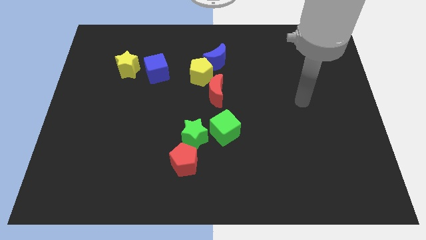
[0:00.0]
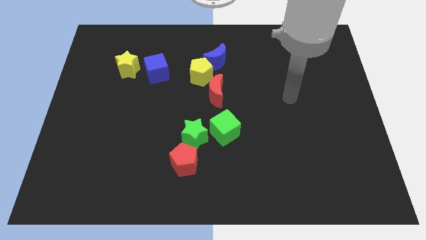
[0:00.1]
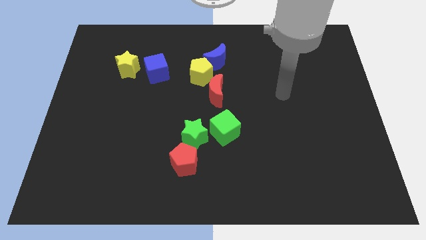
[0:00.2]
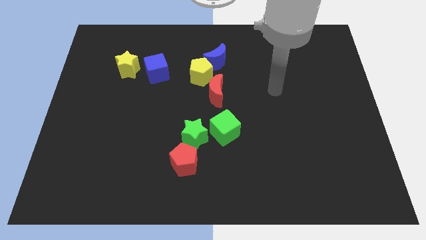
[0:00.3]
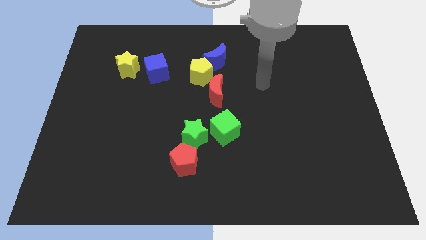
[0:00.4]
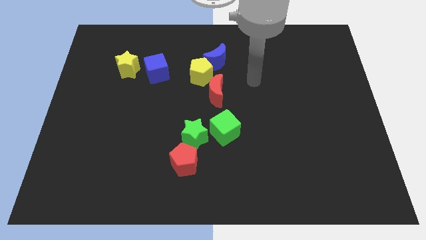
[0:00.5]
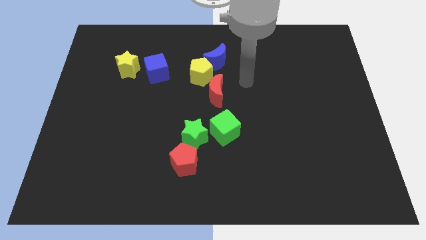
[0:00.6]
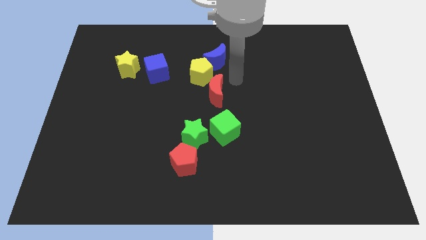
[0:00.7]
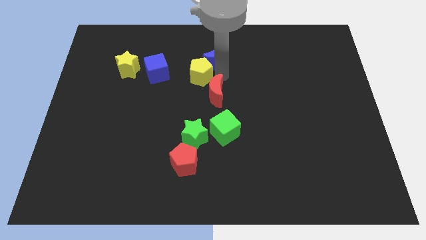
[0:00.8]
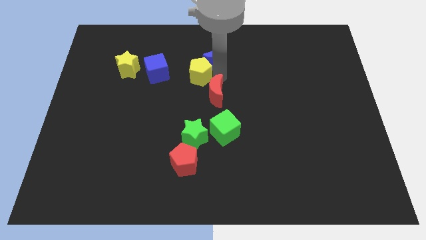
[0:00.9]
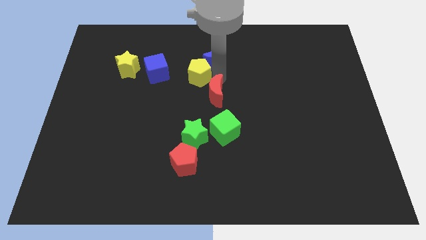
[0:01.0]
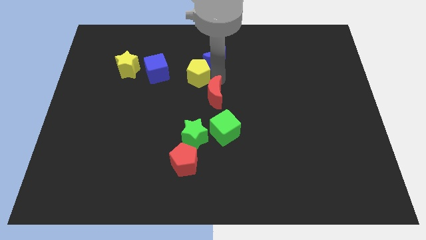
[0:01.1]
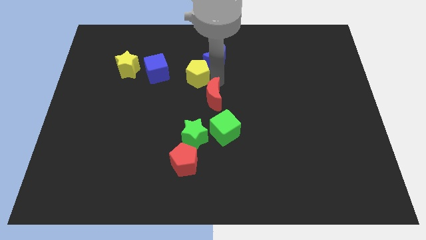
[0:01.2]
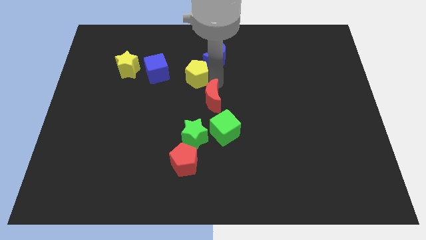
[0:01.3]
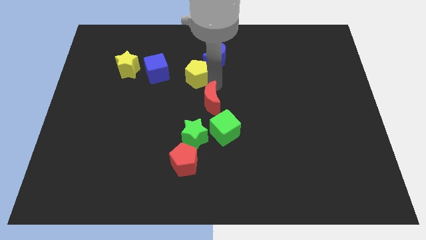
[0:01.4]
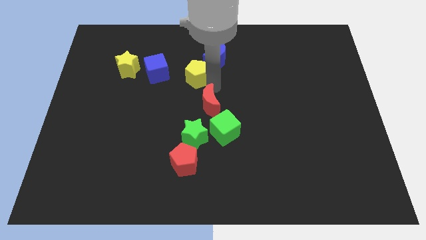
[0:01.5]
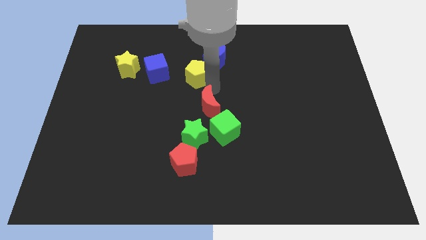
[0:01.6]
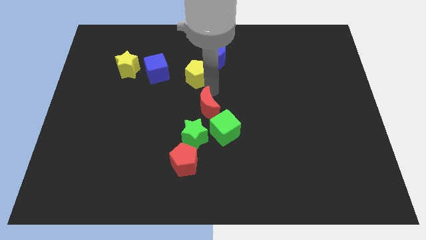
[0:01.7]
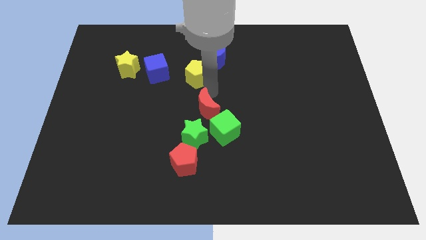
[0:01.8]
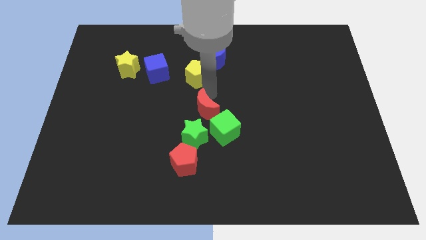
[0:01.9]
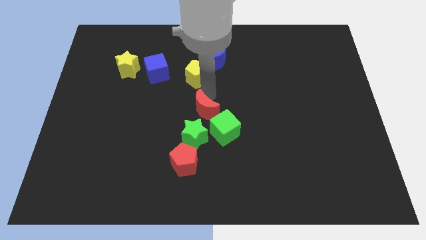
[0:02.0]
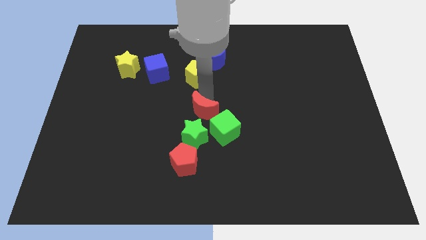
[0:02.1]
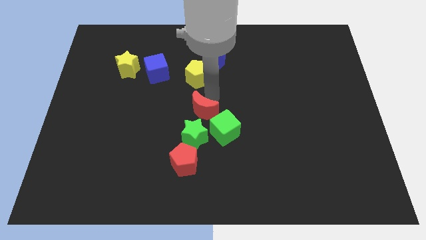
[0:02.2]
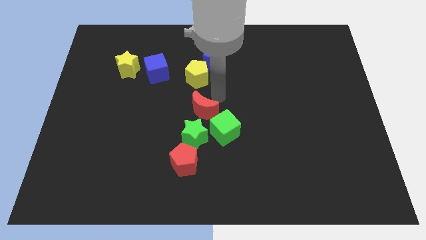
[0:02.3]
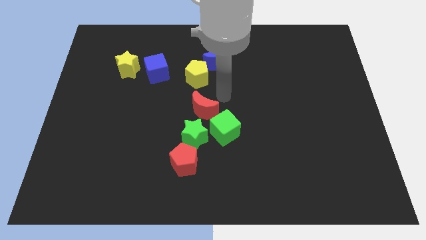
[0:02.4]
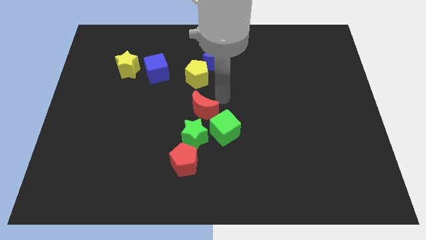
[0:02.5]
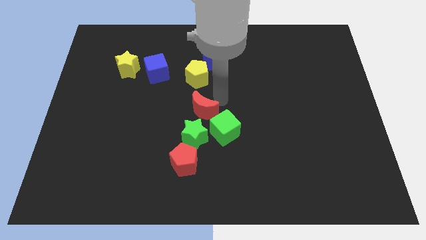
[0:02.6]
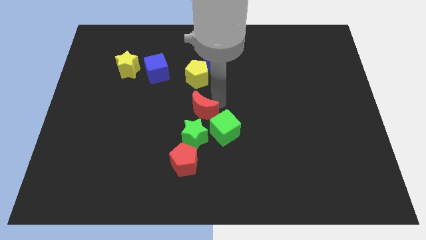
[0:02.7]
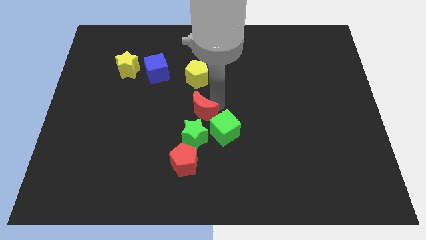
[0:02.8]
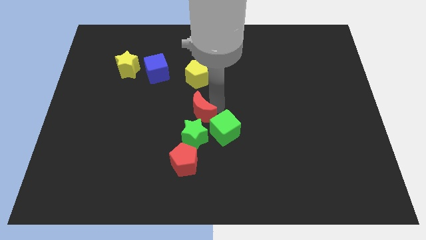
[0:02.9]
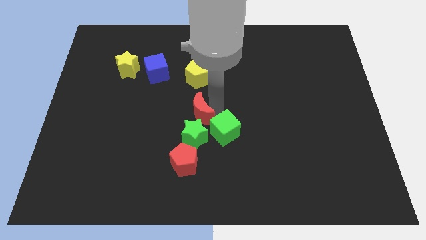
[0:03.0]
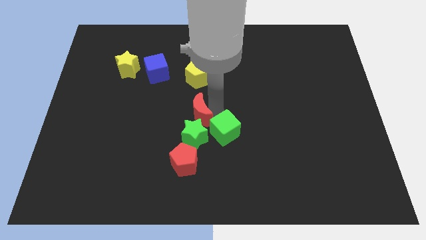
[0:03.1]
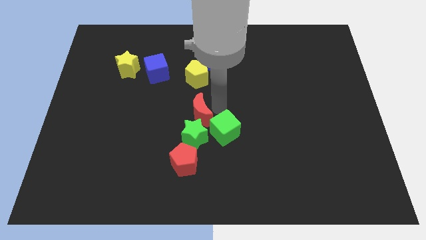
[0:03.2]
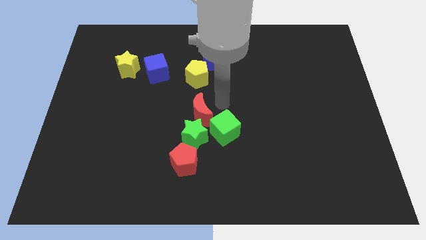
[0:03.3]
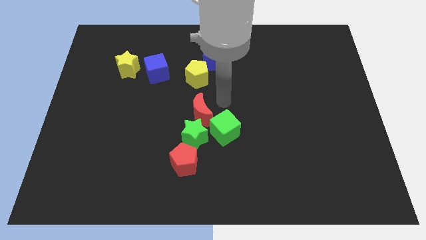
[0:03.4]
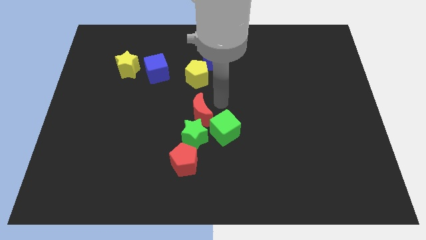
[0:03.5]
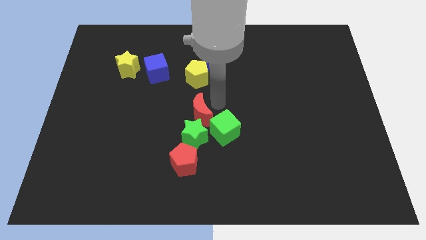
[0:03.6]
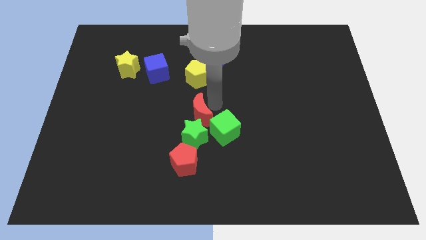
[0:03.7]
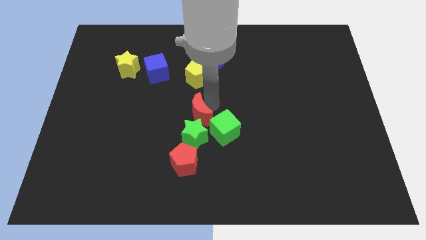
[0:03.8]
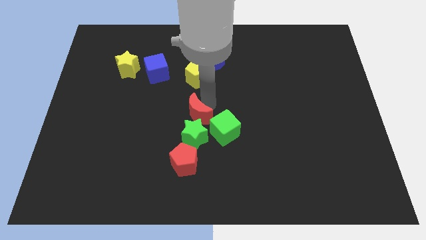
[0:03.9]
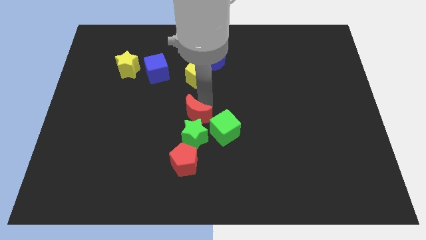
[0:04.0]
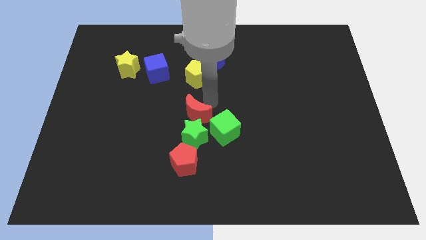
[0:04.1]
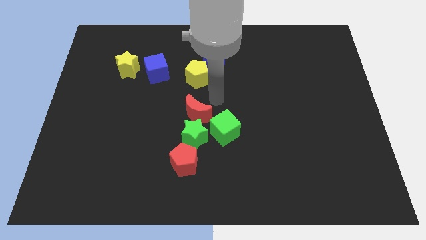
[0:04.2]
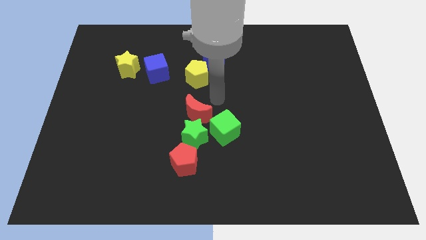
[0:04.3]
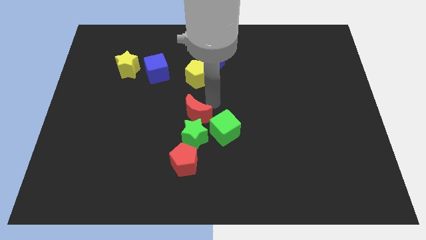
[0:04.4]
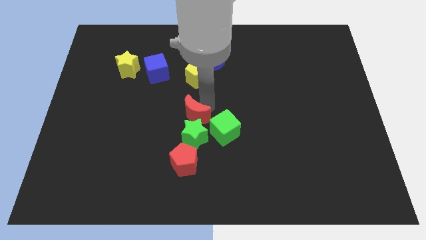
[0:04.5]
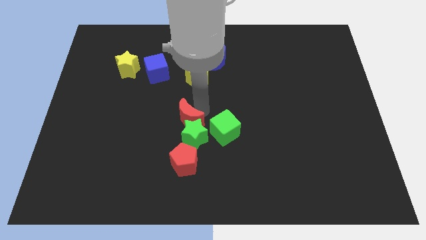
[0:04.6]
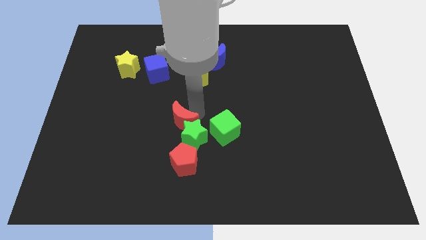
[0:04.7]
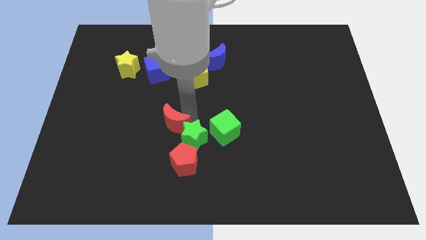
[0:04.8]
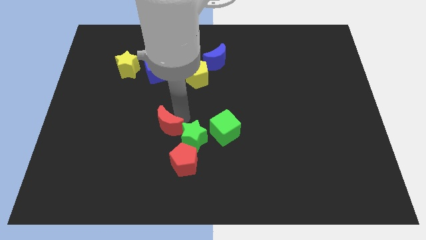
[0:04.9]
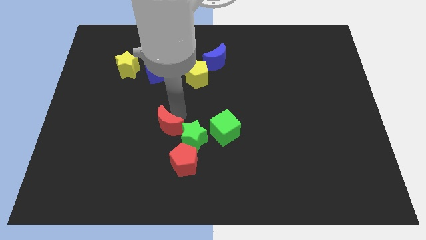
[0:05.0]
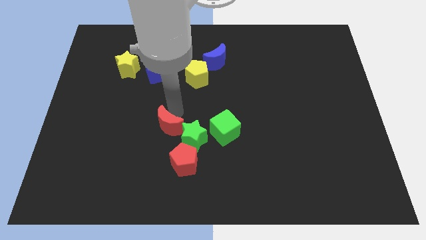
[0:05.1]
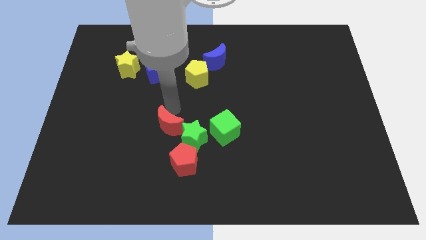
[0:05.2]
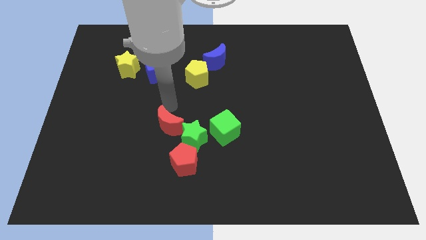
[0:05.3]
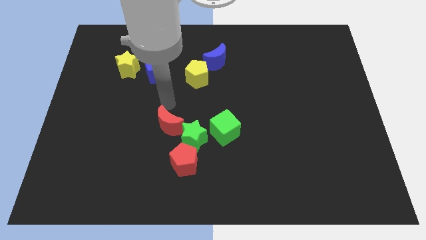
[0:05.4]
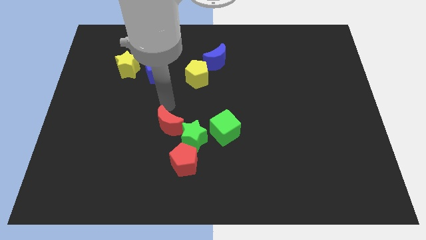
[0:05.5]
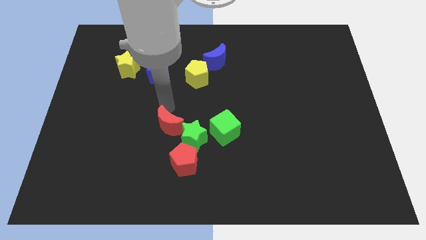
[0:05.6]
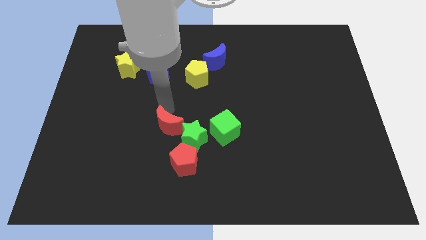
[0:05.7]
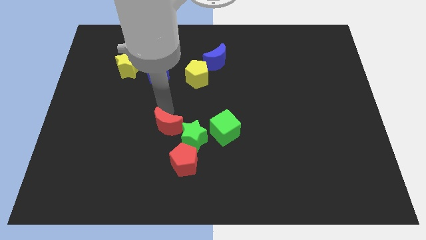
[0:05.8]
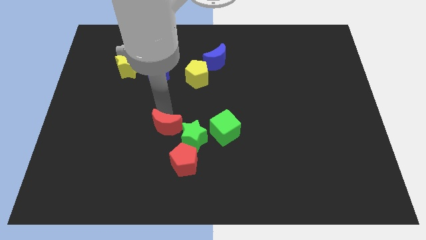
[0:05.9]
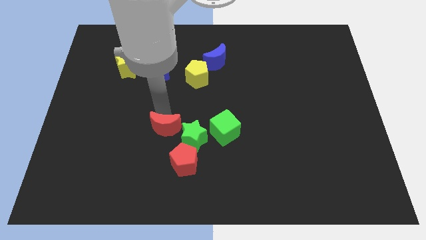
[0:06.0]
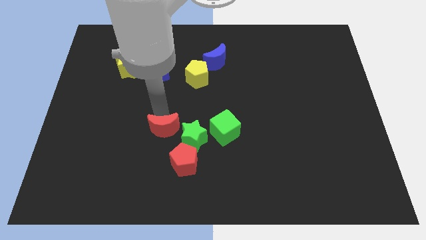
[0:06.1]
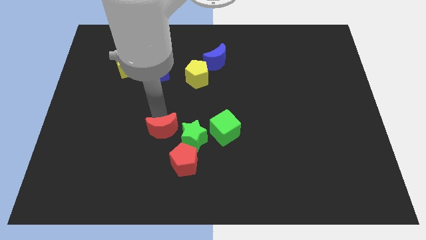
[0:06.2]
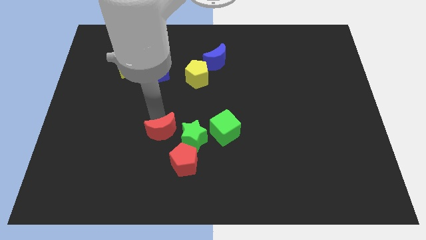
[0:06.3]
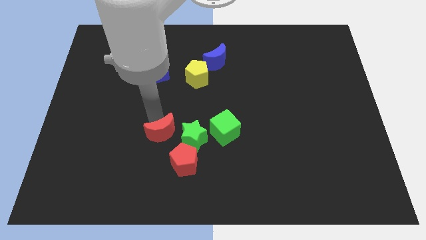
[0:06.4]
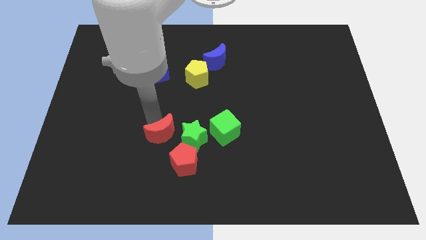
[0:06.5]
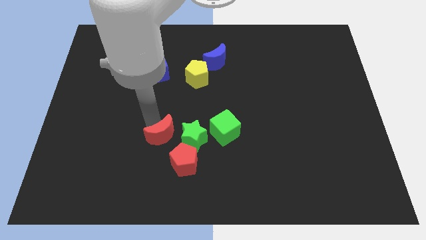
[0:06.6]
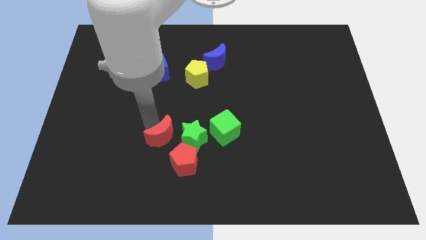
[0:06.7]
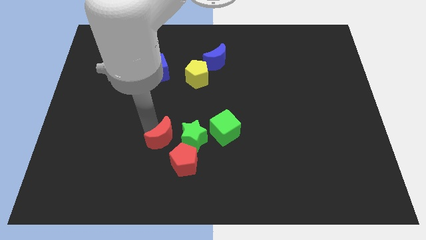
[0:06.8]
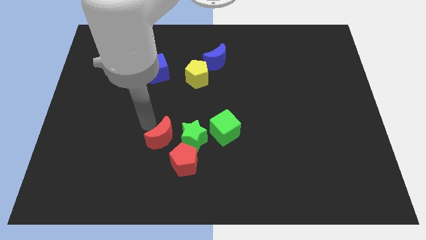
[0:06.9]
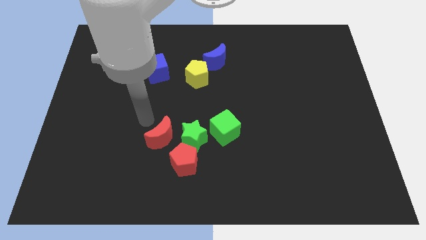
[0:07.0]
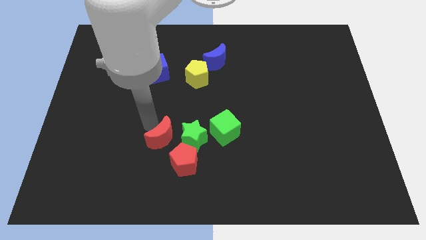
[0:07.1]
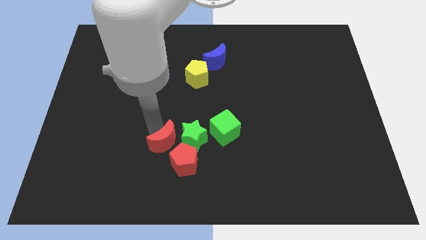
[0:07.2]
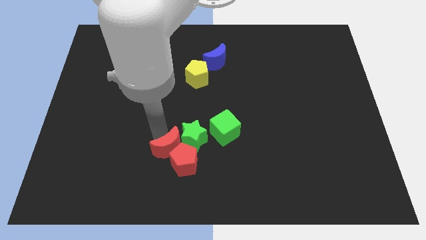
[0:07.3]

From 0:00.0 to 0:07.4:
put the red moon close to the red pentagon
